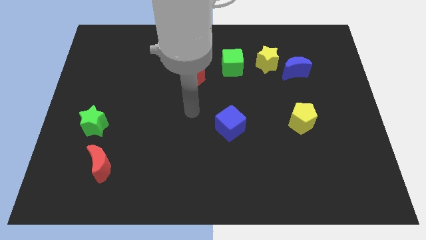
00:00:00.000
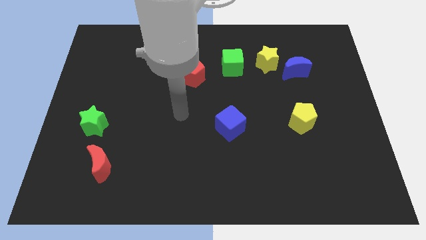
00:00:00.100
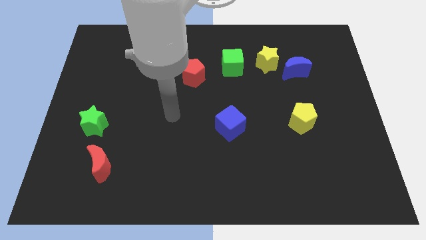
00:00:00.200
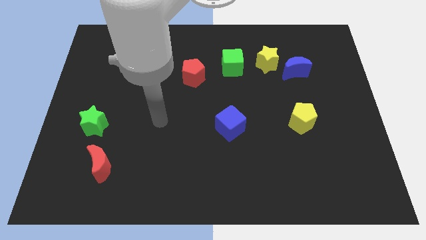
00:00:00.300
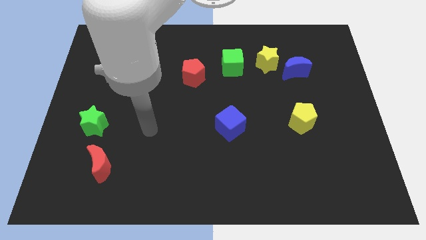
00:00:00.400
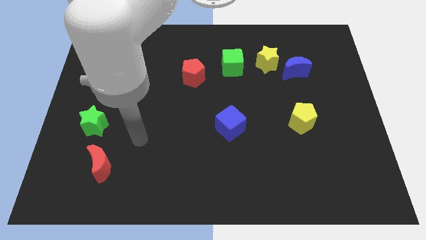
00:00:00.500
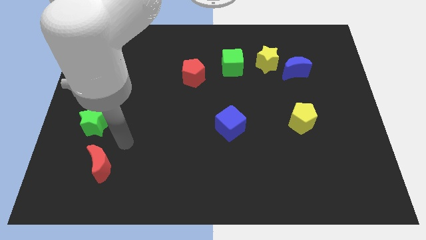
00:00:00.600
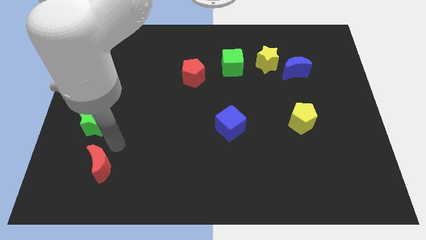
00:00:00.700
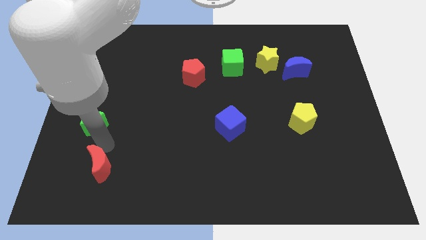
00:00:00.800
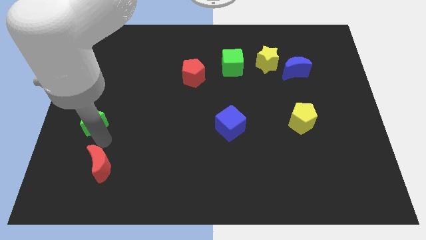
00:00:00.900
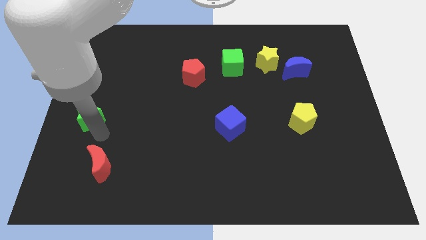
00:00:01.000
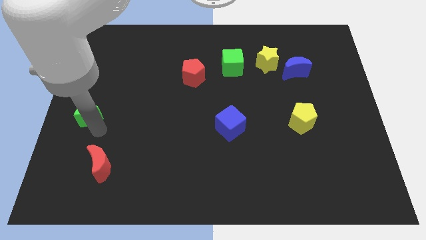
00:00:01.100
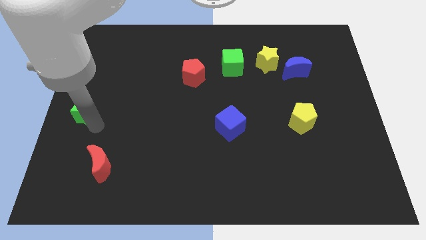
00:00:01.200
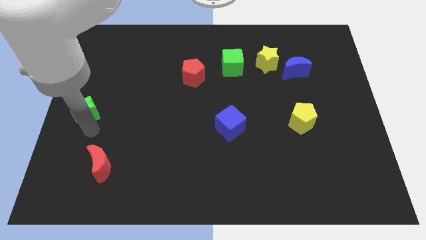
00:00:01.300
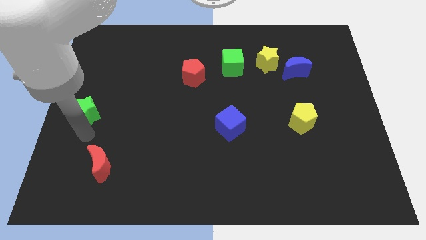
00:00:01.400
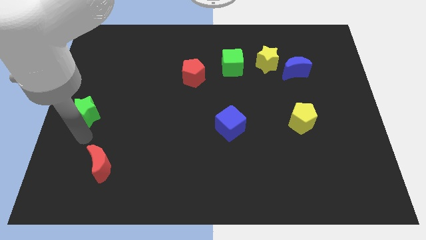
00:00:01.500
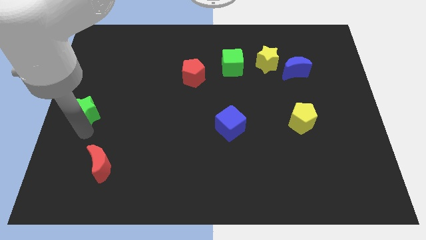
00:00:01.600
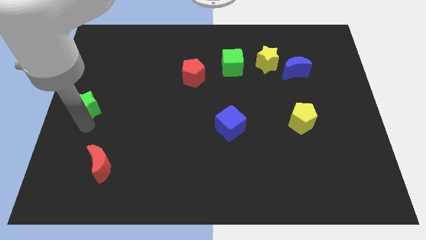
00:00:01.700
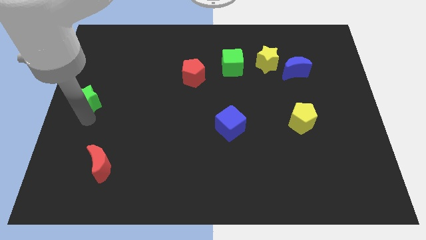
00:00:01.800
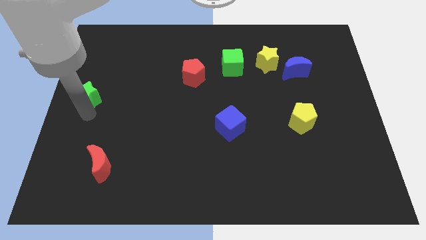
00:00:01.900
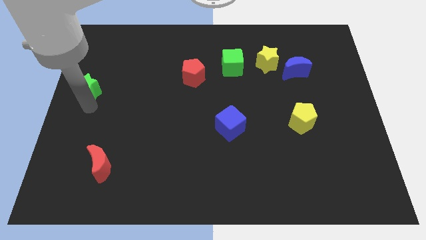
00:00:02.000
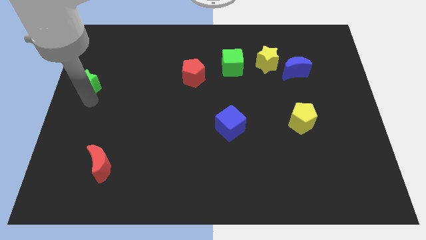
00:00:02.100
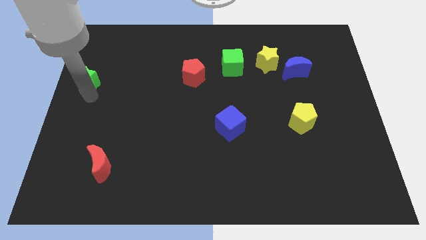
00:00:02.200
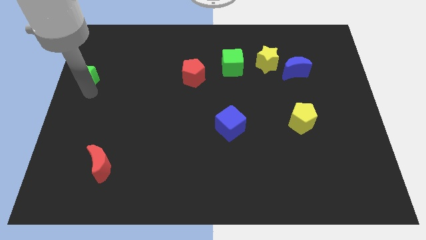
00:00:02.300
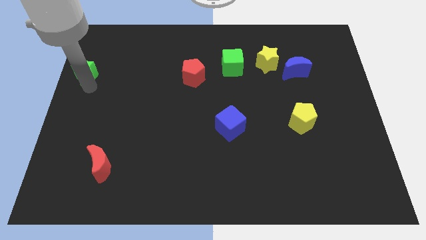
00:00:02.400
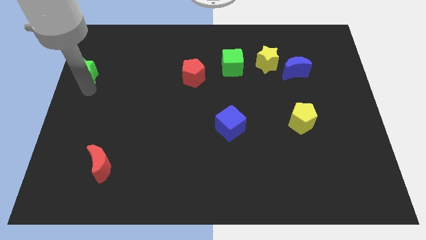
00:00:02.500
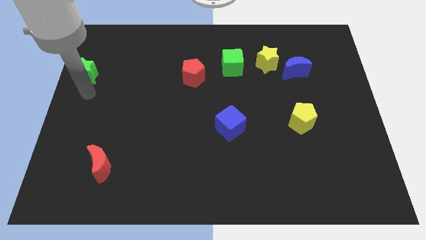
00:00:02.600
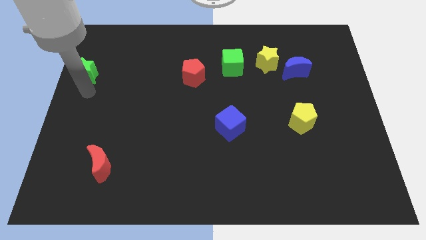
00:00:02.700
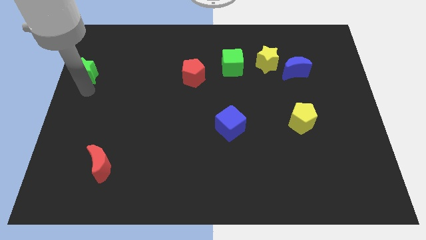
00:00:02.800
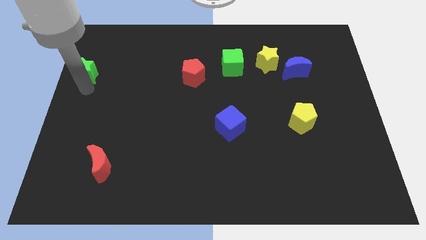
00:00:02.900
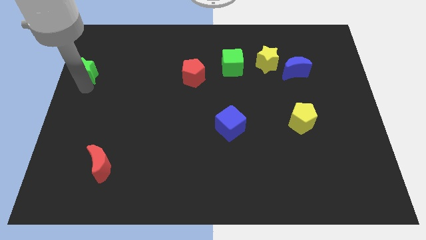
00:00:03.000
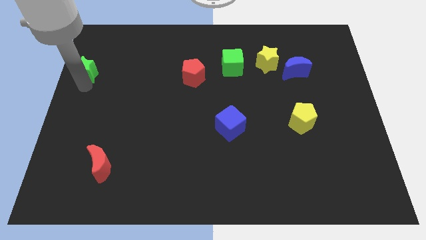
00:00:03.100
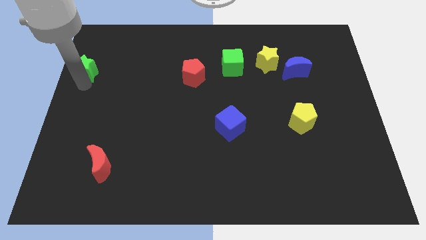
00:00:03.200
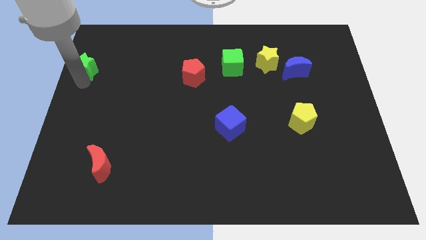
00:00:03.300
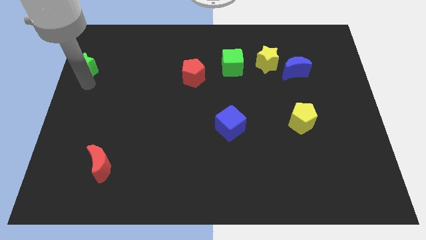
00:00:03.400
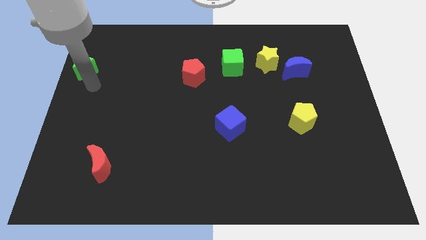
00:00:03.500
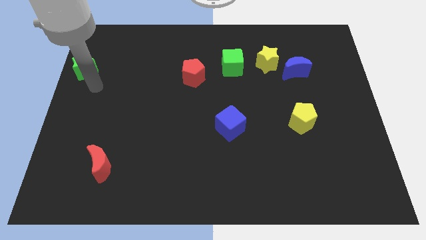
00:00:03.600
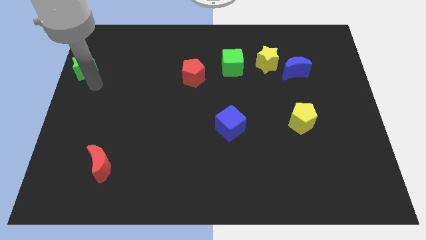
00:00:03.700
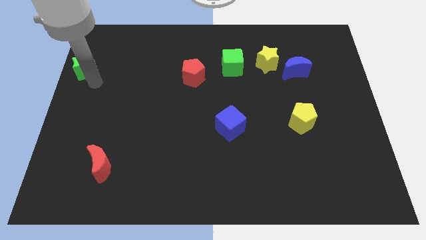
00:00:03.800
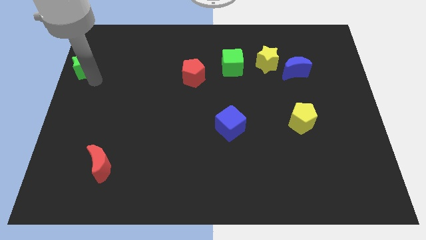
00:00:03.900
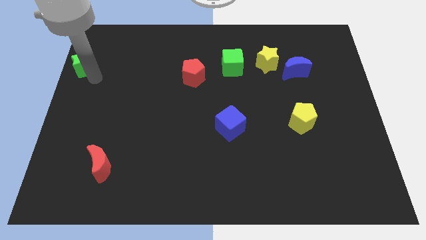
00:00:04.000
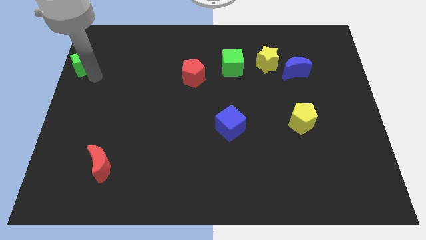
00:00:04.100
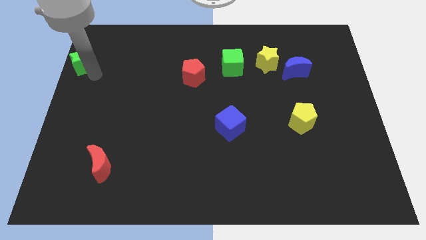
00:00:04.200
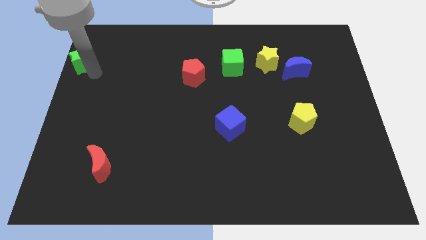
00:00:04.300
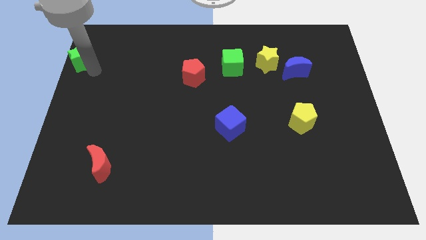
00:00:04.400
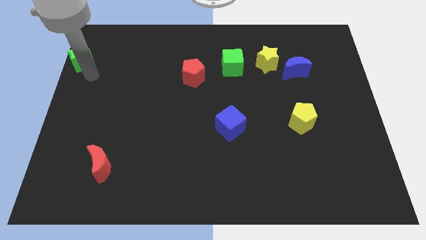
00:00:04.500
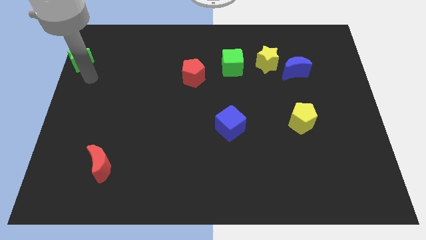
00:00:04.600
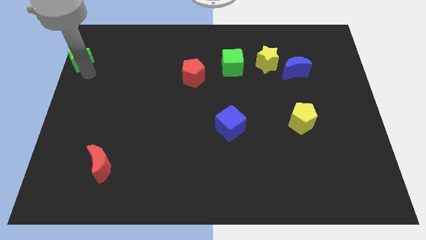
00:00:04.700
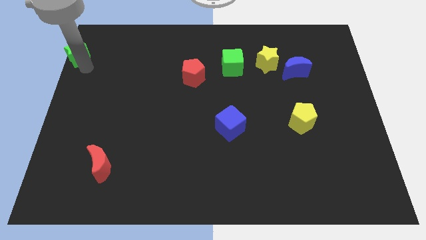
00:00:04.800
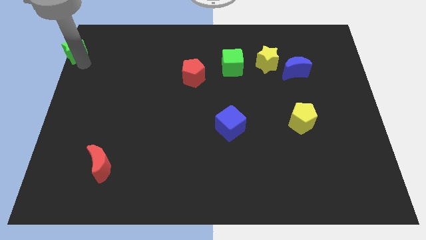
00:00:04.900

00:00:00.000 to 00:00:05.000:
push the green star to the top left of the board

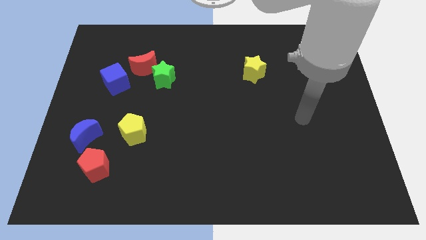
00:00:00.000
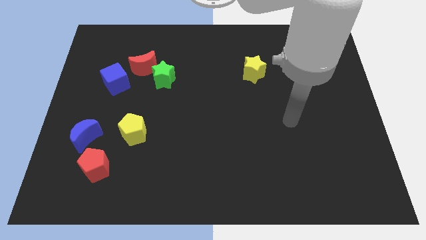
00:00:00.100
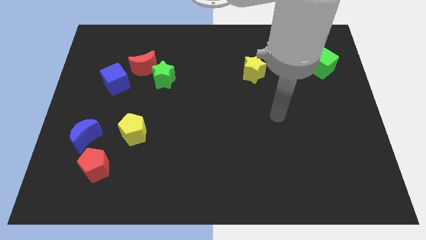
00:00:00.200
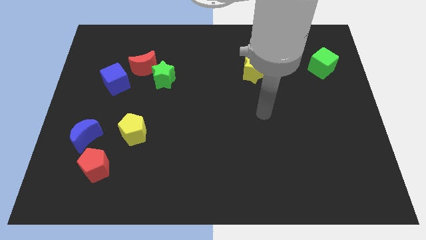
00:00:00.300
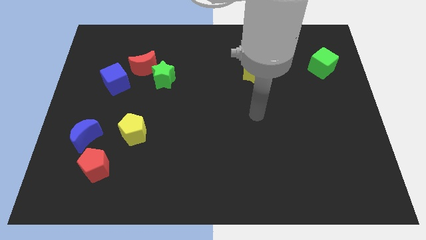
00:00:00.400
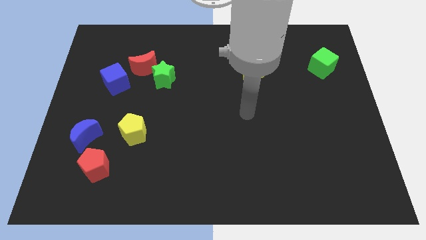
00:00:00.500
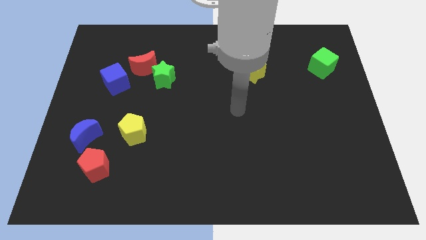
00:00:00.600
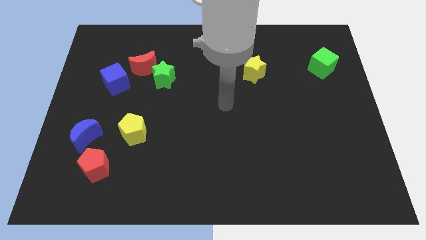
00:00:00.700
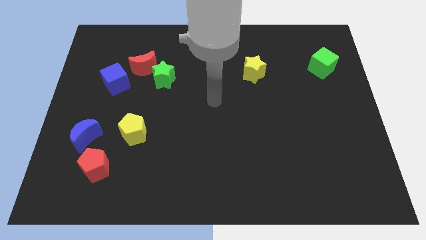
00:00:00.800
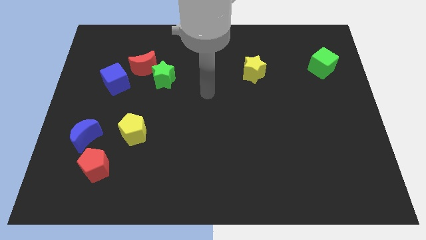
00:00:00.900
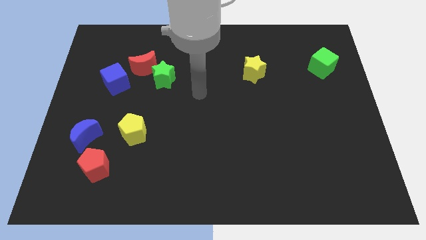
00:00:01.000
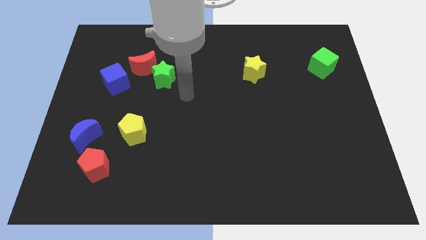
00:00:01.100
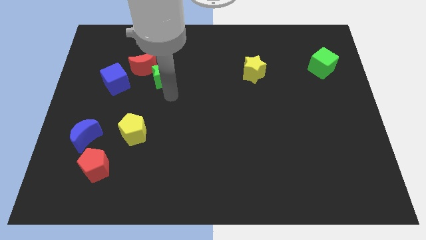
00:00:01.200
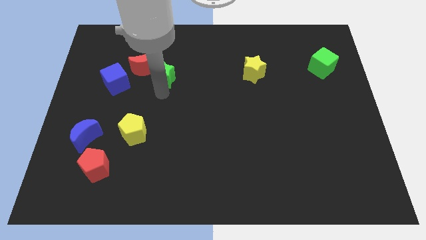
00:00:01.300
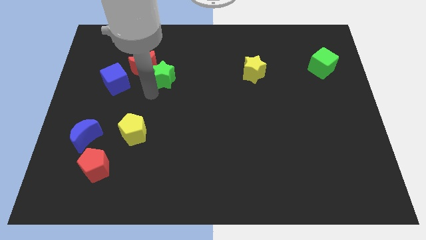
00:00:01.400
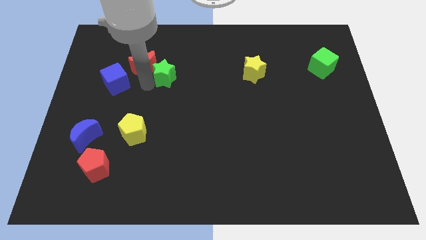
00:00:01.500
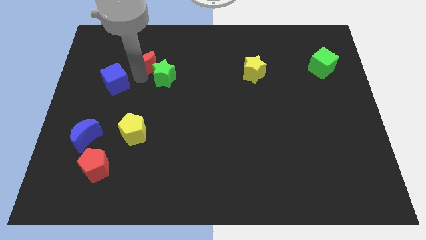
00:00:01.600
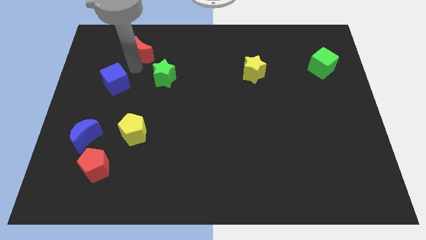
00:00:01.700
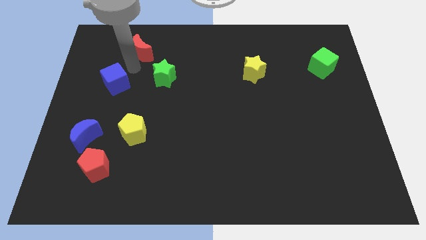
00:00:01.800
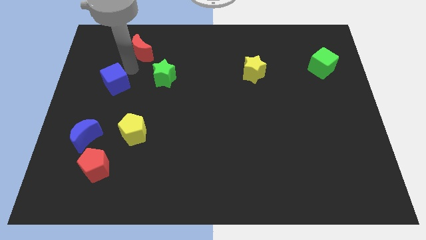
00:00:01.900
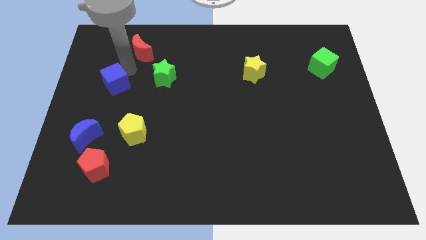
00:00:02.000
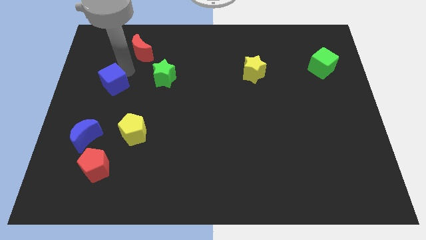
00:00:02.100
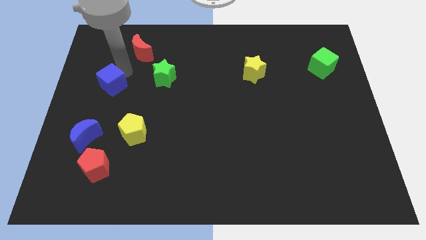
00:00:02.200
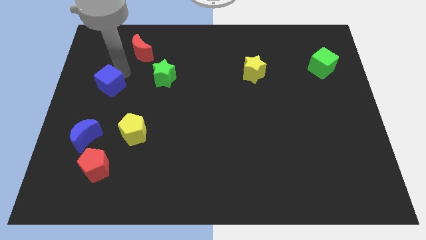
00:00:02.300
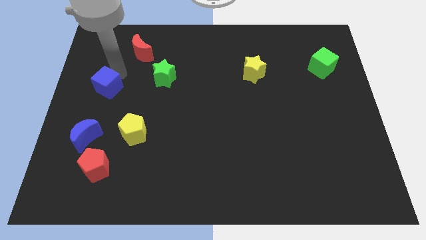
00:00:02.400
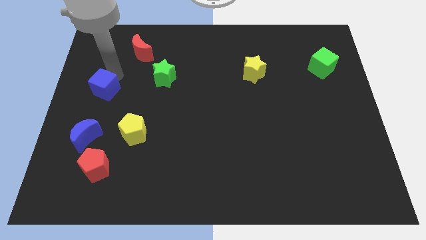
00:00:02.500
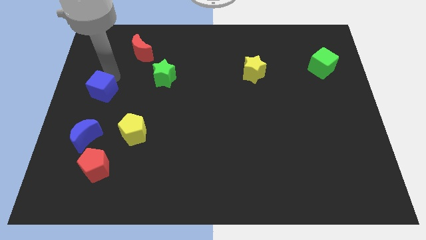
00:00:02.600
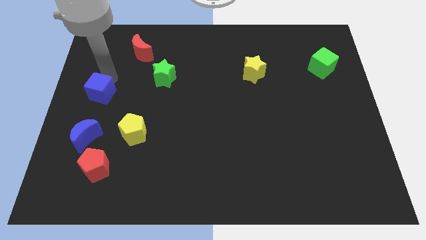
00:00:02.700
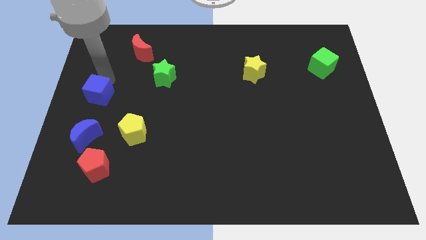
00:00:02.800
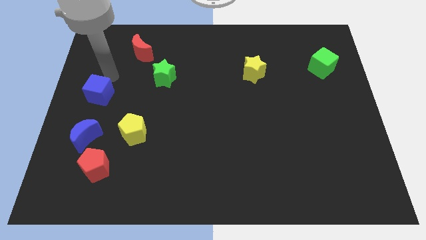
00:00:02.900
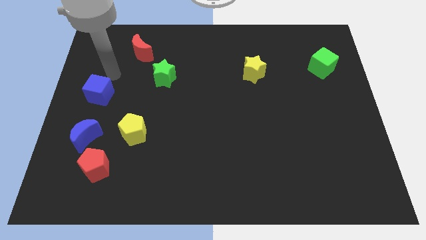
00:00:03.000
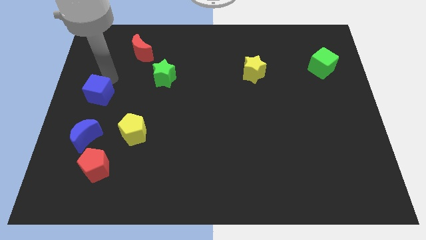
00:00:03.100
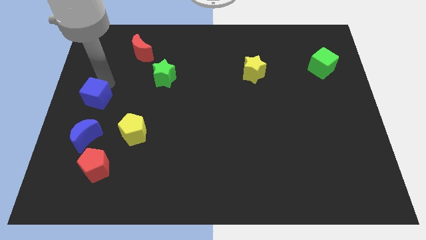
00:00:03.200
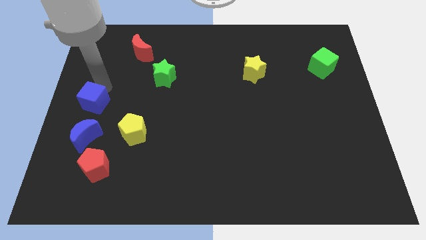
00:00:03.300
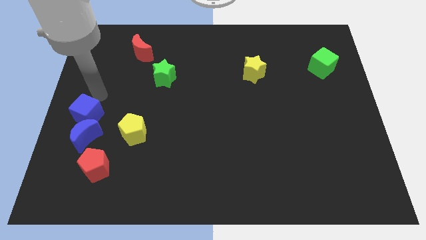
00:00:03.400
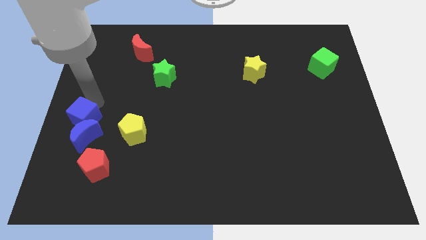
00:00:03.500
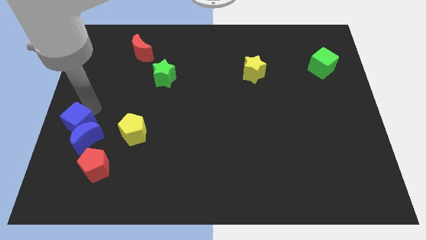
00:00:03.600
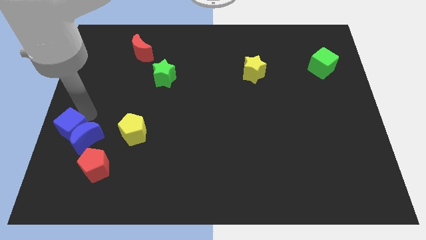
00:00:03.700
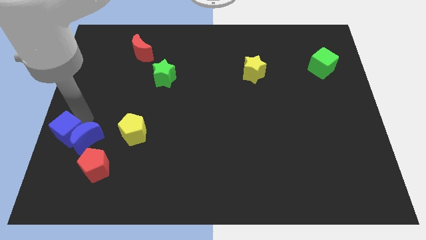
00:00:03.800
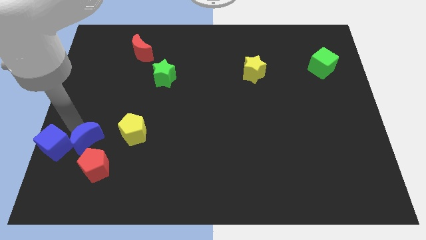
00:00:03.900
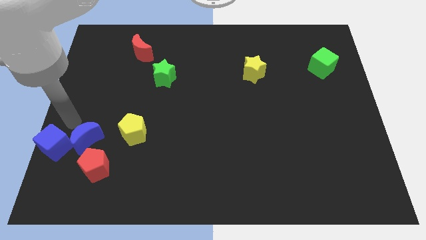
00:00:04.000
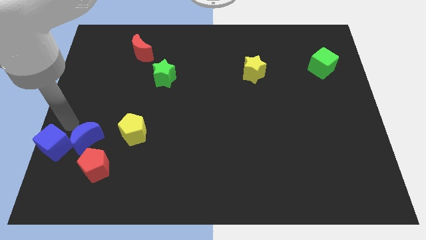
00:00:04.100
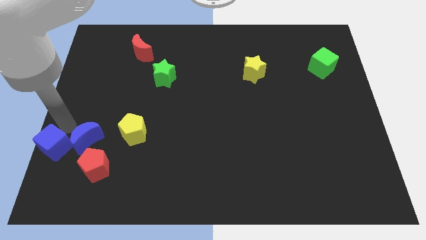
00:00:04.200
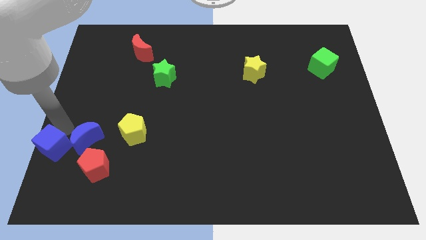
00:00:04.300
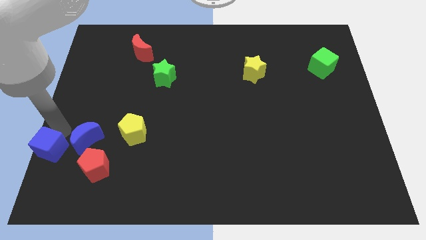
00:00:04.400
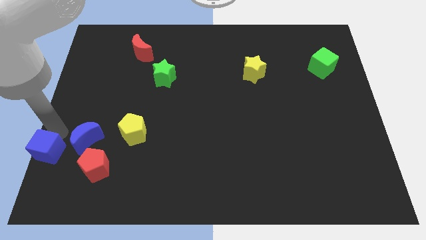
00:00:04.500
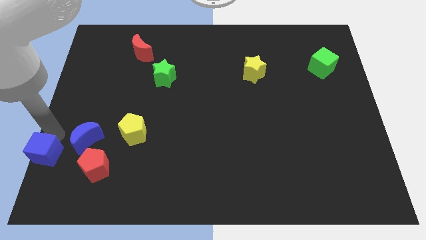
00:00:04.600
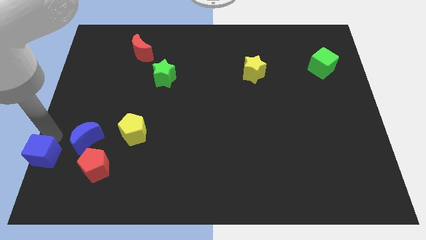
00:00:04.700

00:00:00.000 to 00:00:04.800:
move the blue cube to the bottom left of the board
